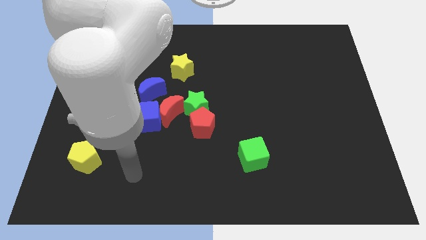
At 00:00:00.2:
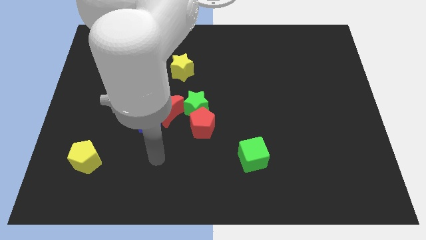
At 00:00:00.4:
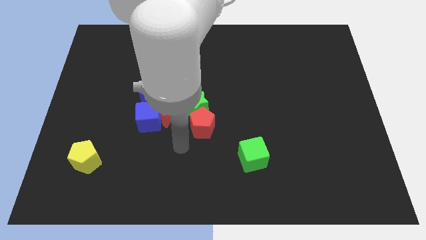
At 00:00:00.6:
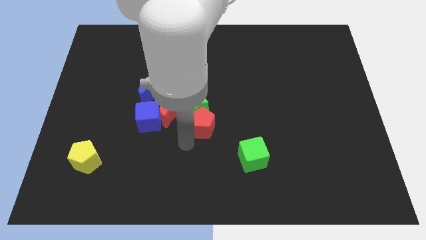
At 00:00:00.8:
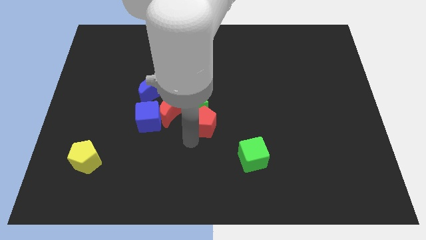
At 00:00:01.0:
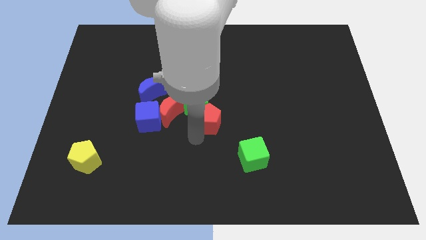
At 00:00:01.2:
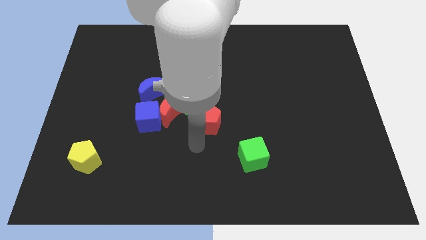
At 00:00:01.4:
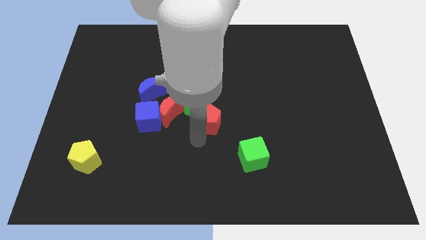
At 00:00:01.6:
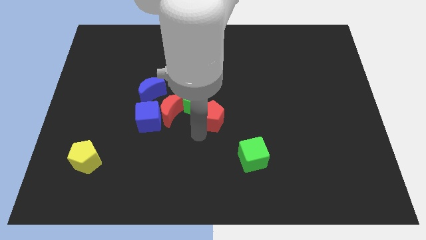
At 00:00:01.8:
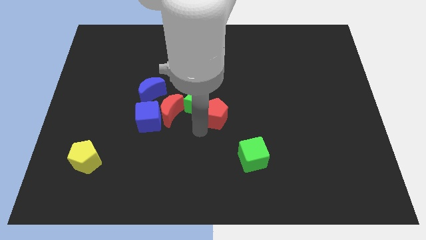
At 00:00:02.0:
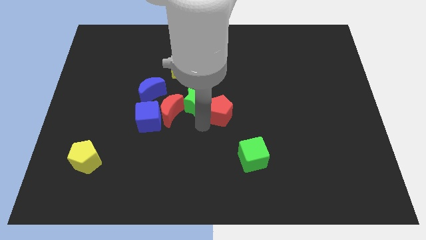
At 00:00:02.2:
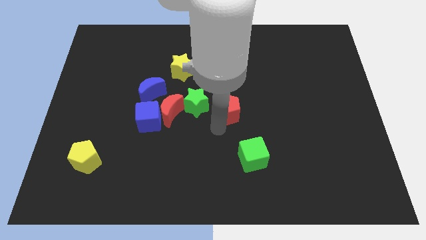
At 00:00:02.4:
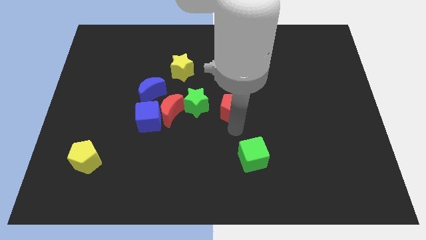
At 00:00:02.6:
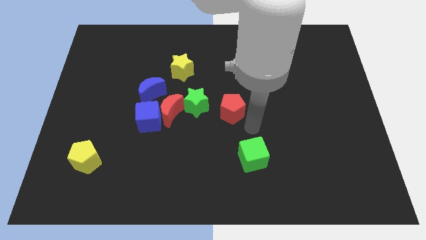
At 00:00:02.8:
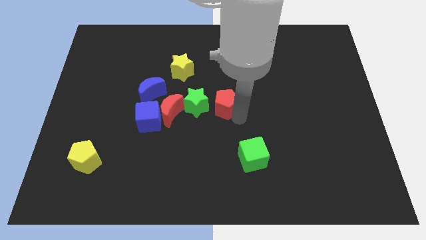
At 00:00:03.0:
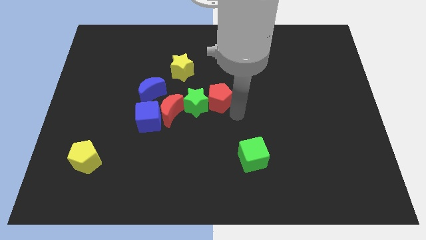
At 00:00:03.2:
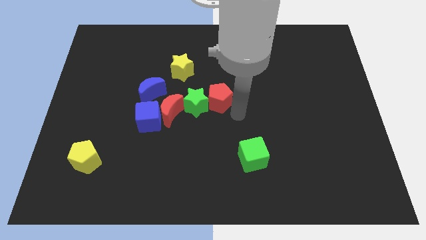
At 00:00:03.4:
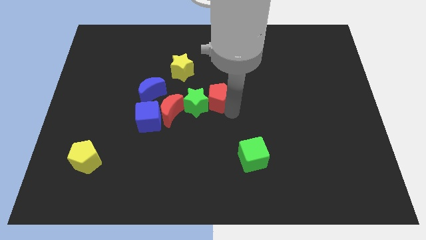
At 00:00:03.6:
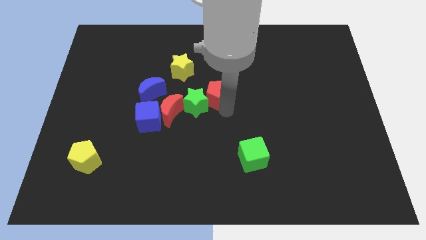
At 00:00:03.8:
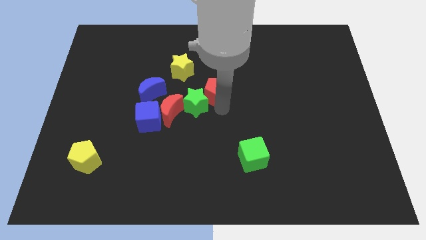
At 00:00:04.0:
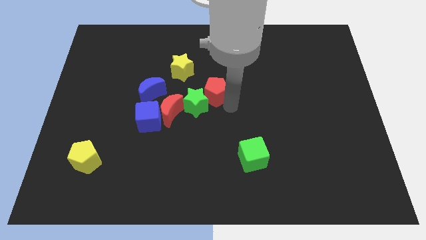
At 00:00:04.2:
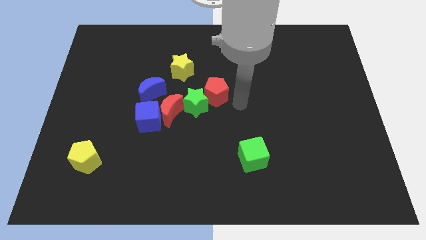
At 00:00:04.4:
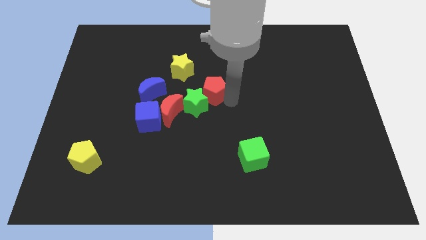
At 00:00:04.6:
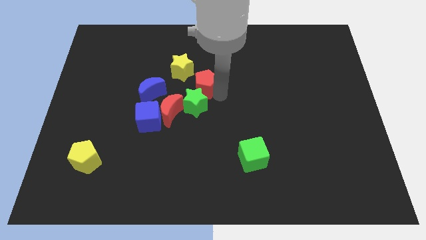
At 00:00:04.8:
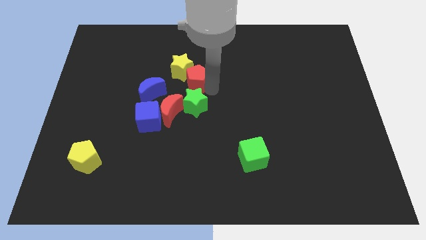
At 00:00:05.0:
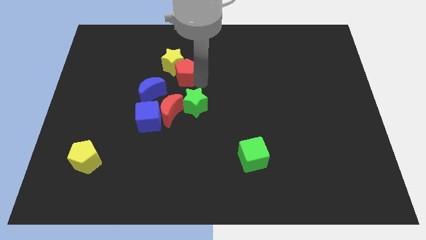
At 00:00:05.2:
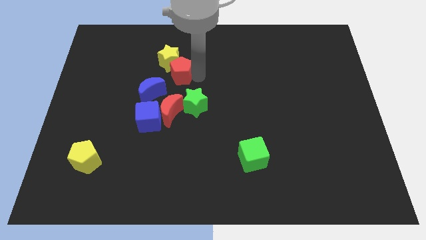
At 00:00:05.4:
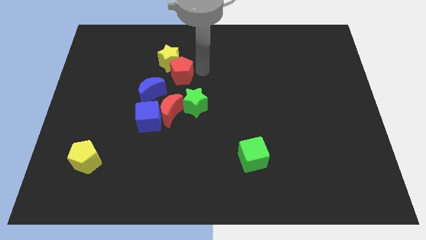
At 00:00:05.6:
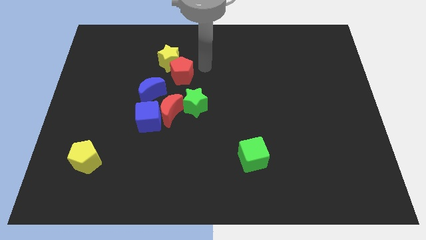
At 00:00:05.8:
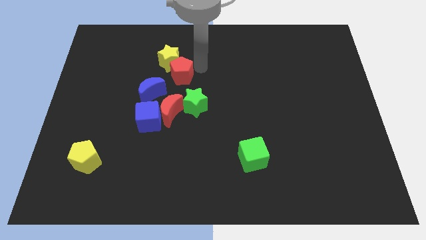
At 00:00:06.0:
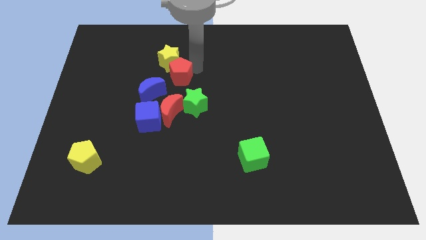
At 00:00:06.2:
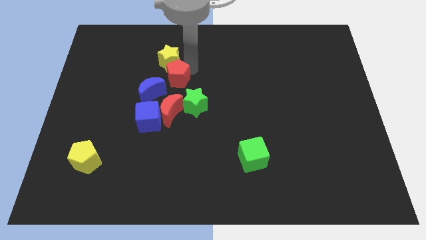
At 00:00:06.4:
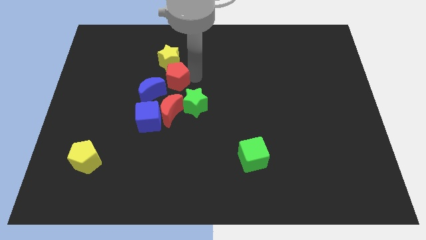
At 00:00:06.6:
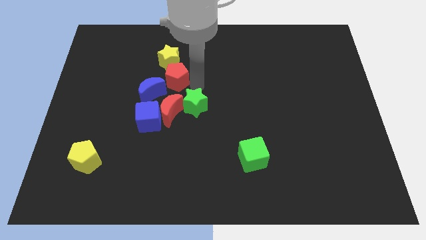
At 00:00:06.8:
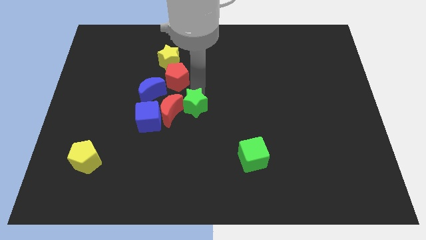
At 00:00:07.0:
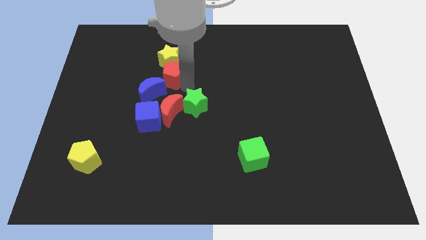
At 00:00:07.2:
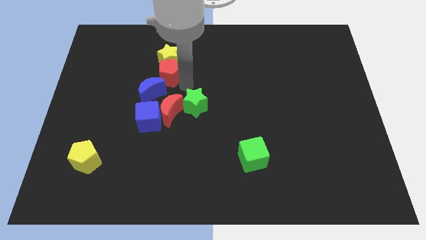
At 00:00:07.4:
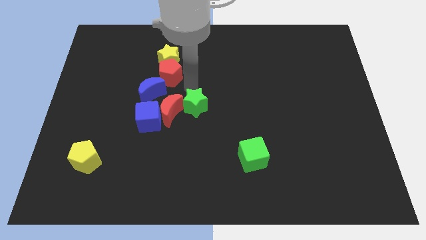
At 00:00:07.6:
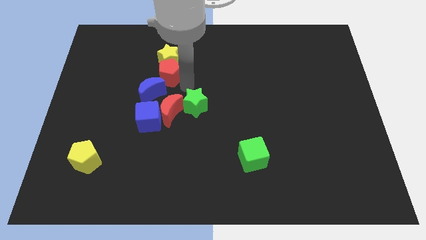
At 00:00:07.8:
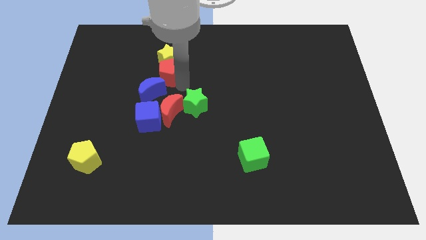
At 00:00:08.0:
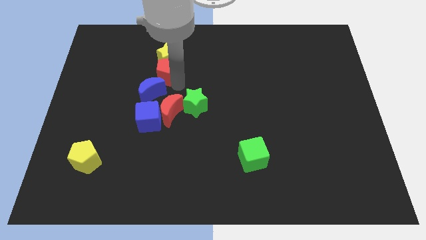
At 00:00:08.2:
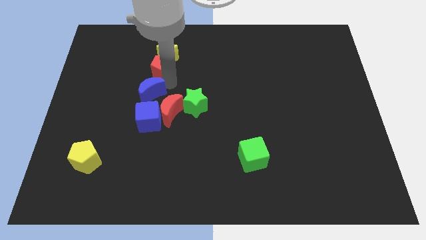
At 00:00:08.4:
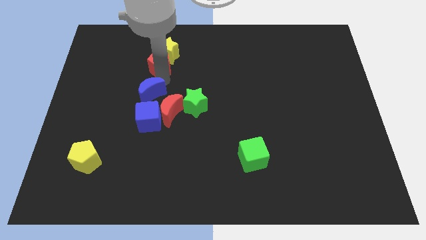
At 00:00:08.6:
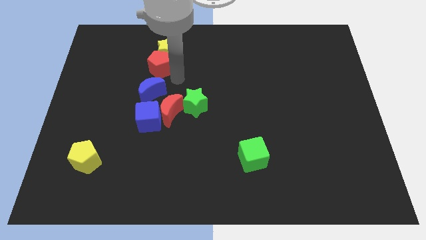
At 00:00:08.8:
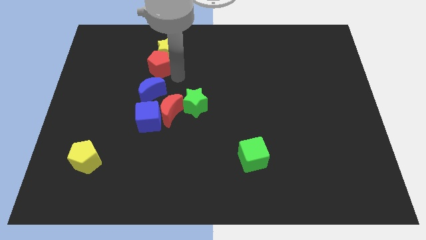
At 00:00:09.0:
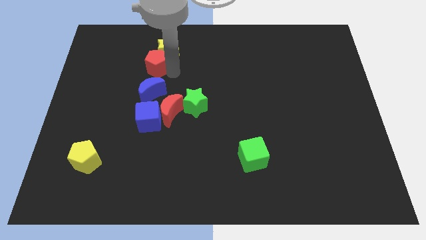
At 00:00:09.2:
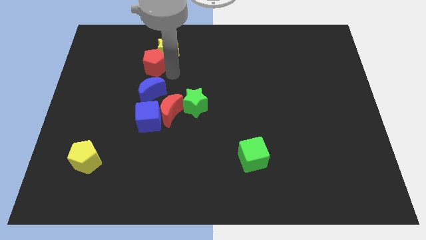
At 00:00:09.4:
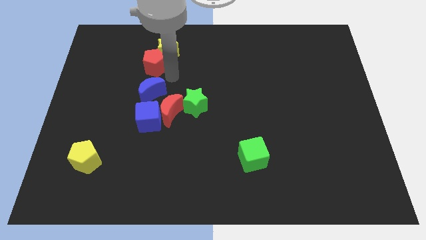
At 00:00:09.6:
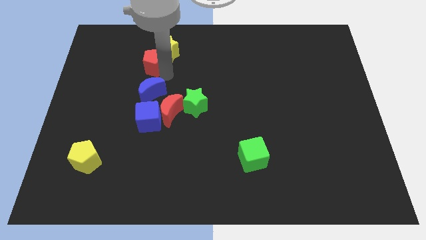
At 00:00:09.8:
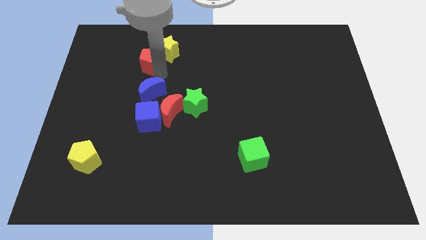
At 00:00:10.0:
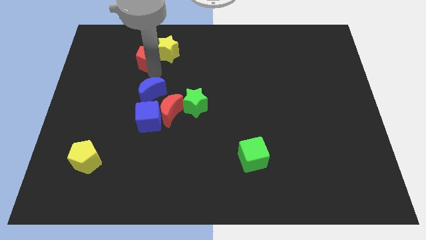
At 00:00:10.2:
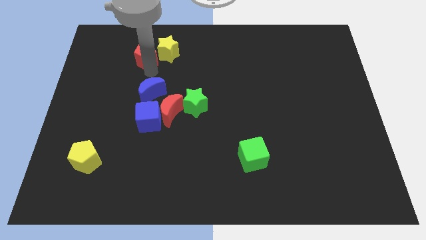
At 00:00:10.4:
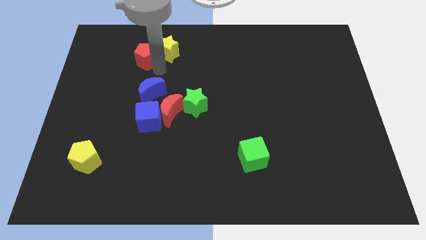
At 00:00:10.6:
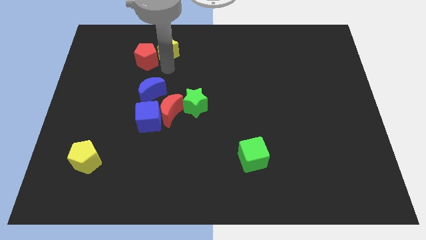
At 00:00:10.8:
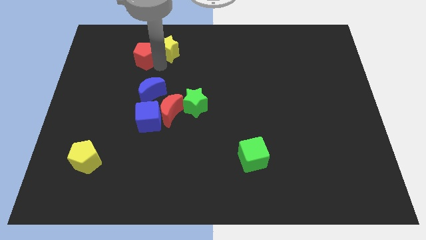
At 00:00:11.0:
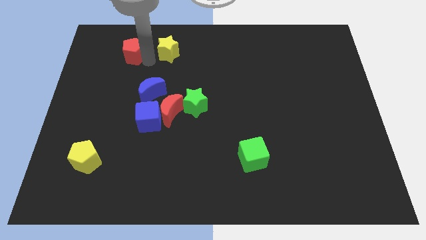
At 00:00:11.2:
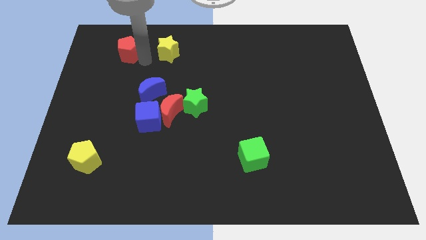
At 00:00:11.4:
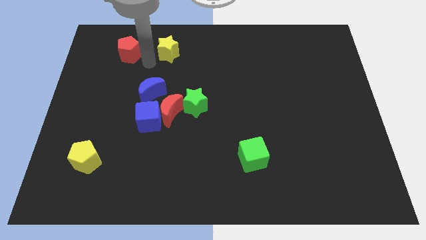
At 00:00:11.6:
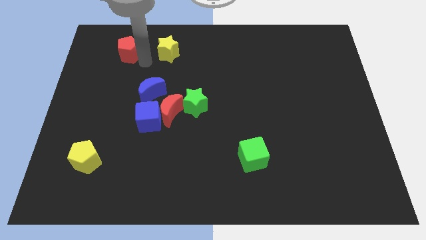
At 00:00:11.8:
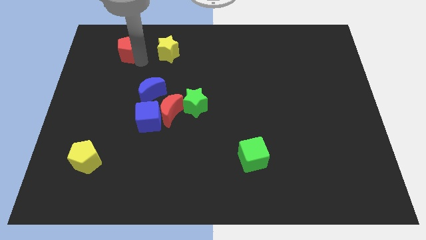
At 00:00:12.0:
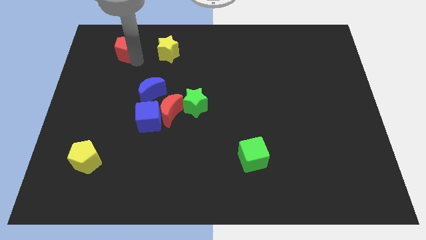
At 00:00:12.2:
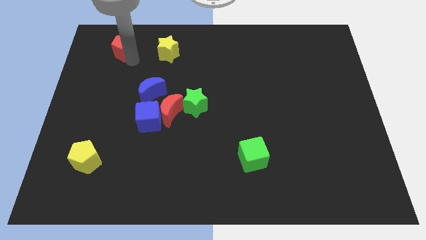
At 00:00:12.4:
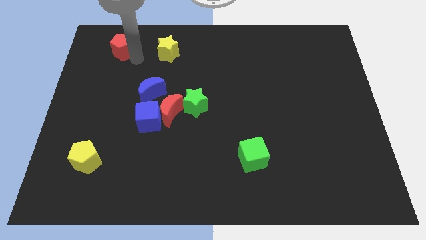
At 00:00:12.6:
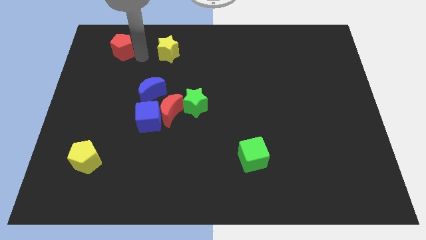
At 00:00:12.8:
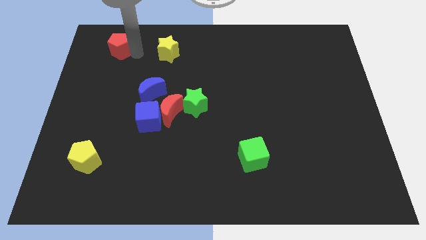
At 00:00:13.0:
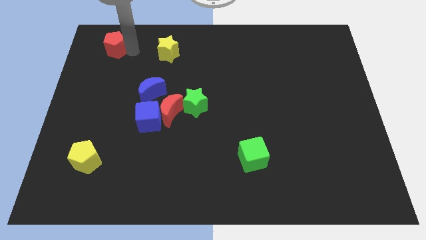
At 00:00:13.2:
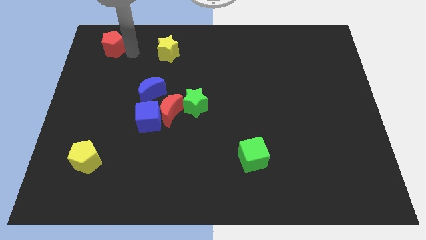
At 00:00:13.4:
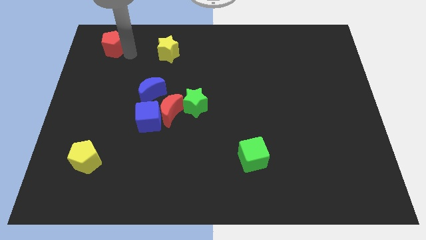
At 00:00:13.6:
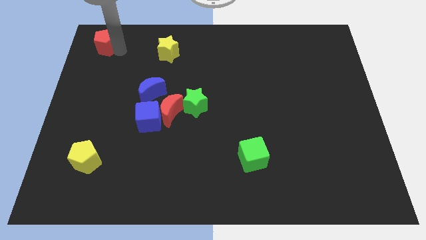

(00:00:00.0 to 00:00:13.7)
move the red pentagon to the top left corner
